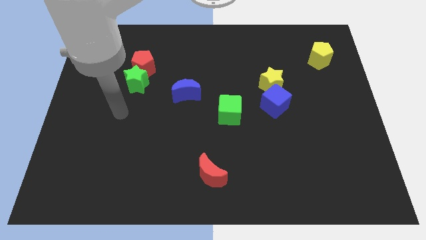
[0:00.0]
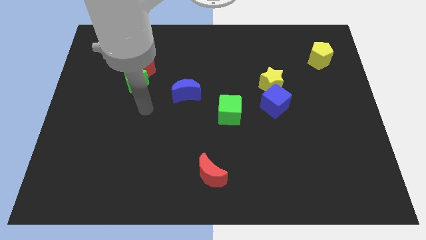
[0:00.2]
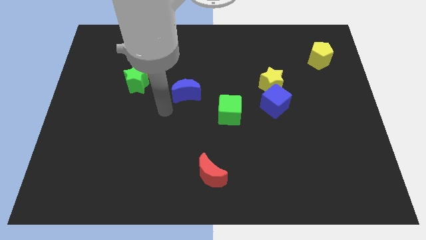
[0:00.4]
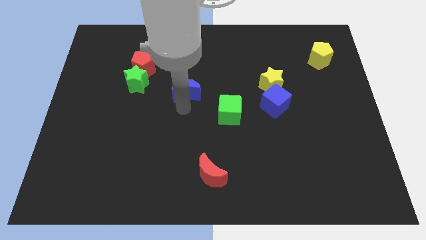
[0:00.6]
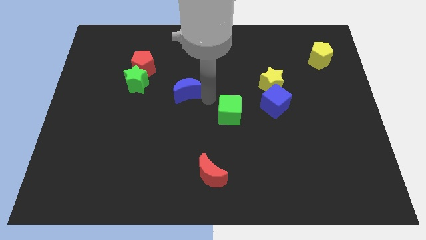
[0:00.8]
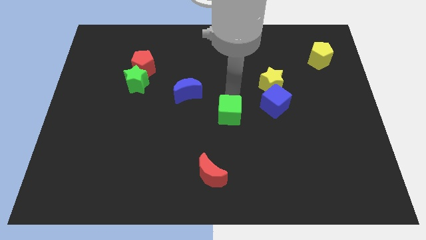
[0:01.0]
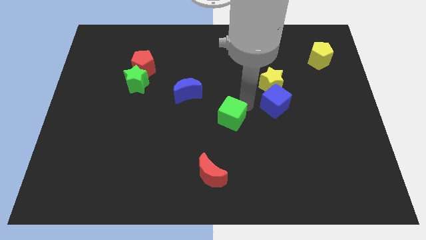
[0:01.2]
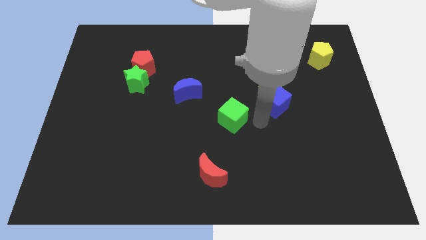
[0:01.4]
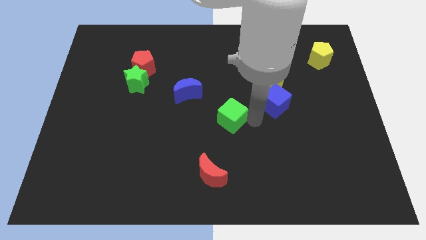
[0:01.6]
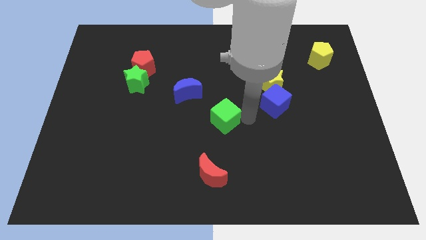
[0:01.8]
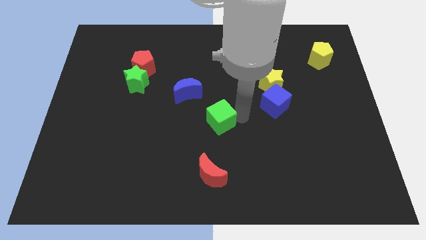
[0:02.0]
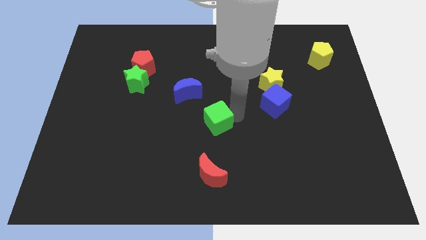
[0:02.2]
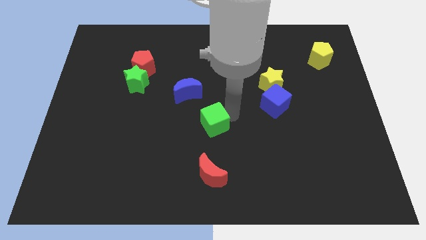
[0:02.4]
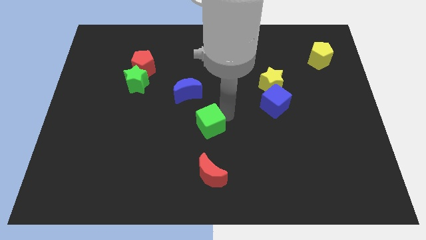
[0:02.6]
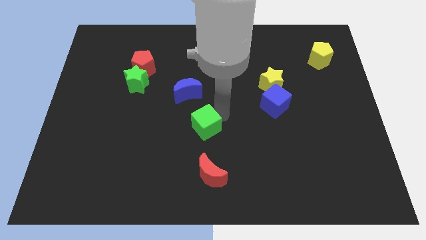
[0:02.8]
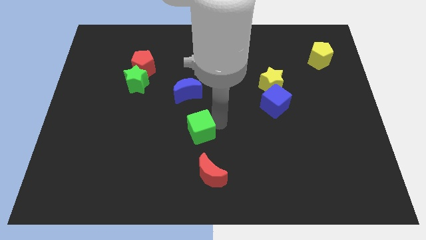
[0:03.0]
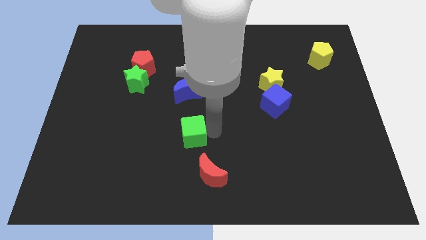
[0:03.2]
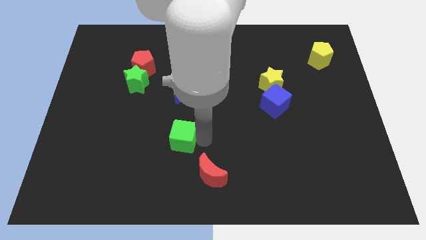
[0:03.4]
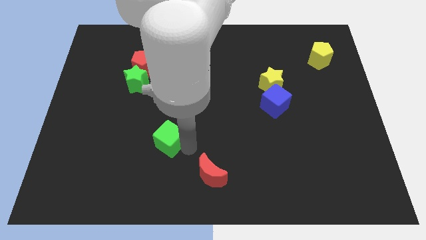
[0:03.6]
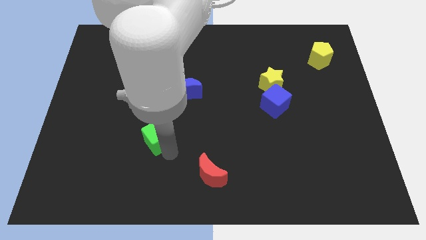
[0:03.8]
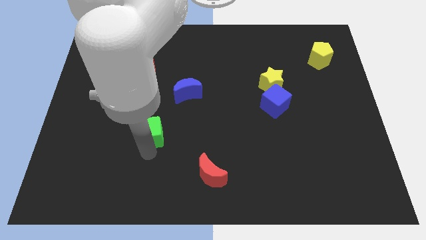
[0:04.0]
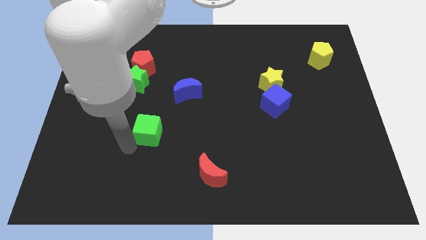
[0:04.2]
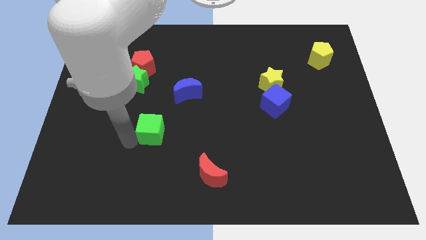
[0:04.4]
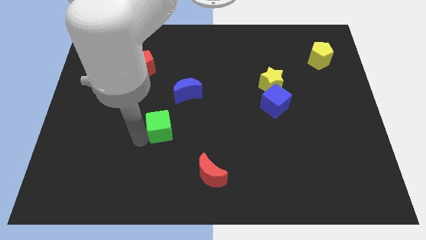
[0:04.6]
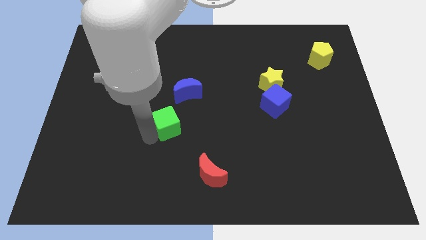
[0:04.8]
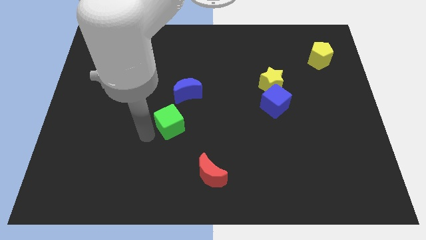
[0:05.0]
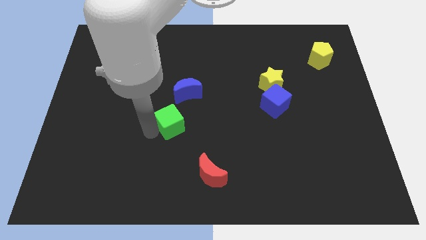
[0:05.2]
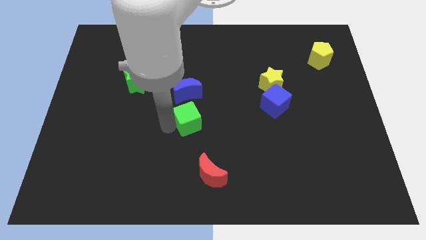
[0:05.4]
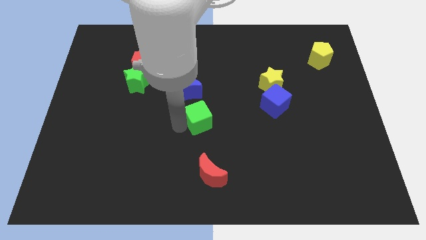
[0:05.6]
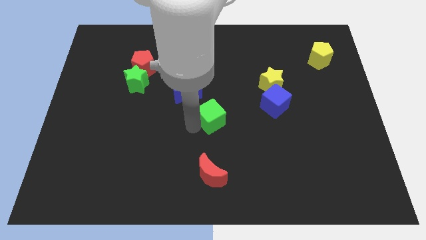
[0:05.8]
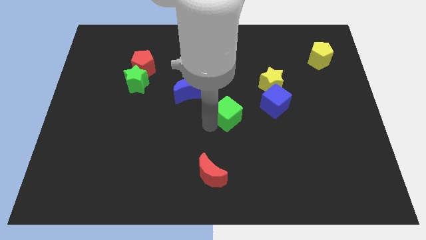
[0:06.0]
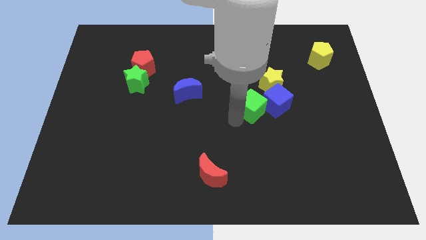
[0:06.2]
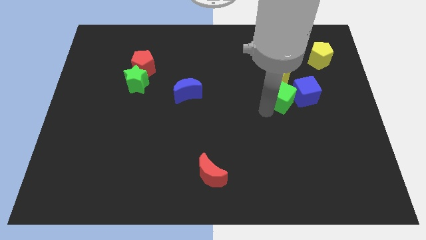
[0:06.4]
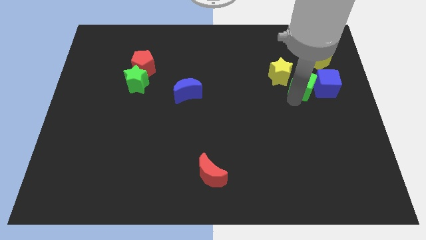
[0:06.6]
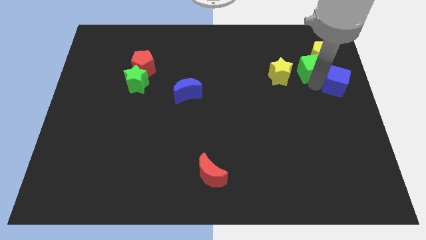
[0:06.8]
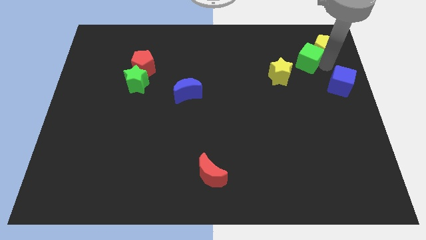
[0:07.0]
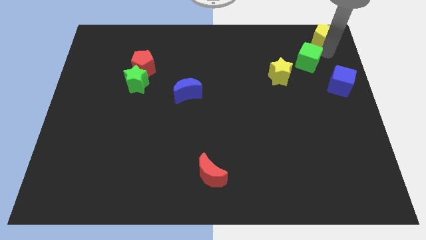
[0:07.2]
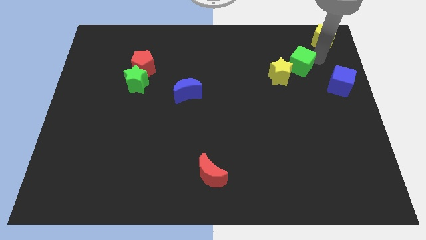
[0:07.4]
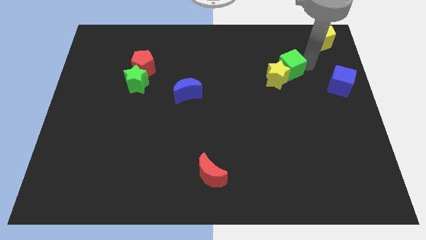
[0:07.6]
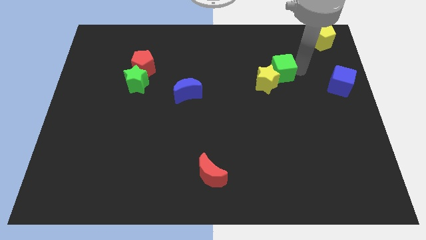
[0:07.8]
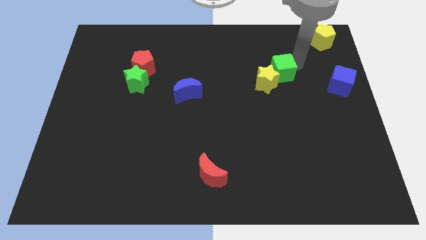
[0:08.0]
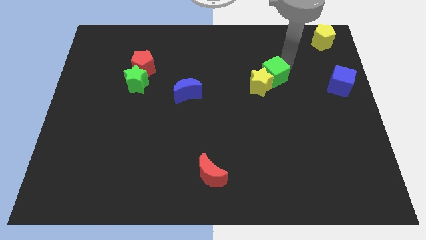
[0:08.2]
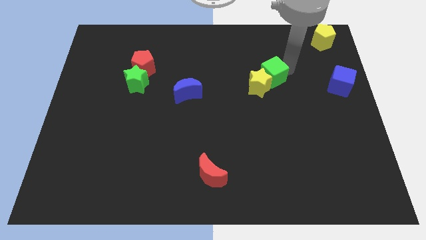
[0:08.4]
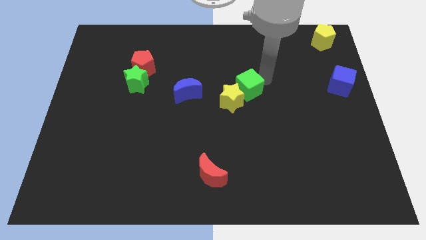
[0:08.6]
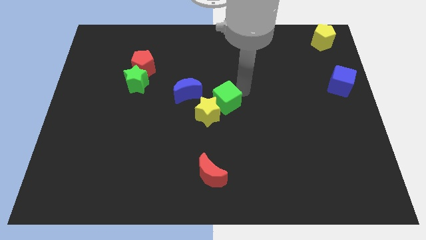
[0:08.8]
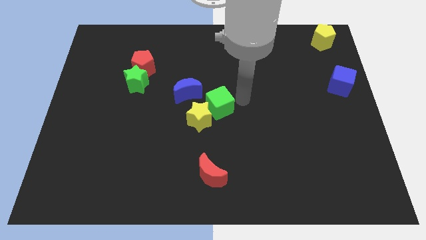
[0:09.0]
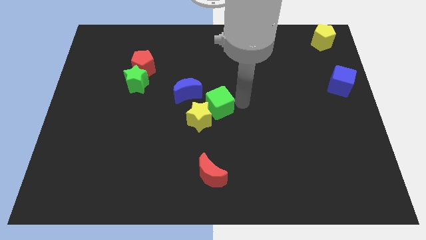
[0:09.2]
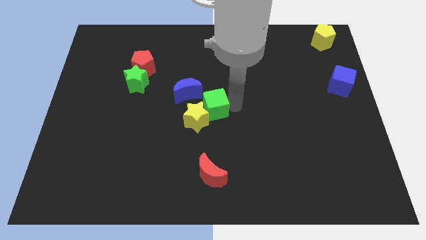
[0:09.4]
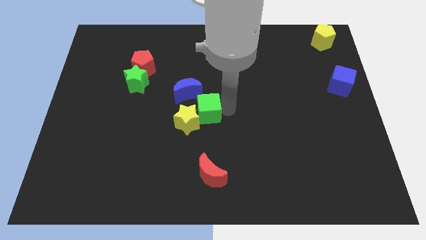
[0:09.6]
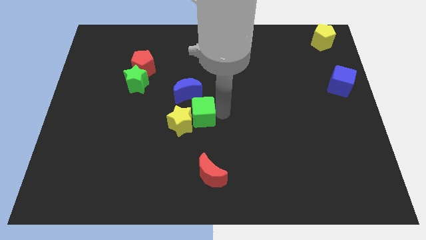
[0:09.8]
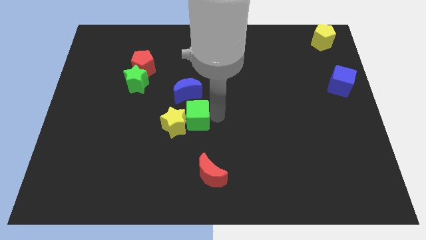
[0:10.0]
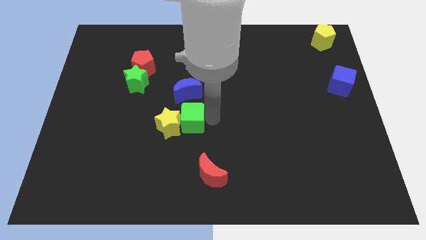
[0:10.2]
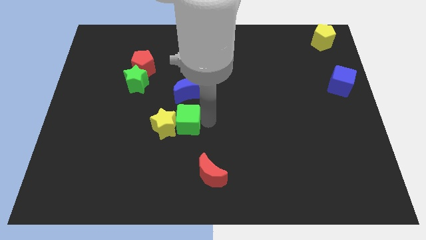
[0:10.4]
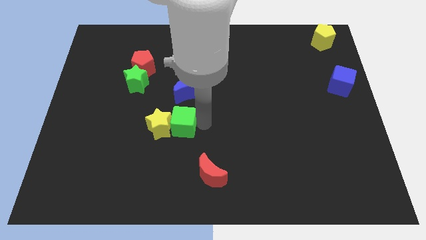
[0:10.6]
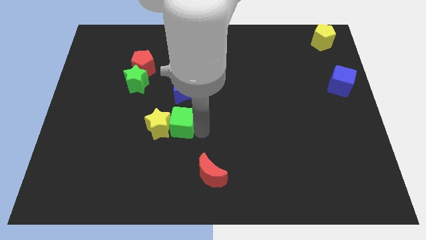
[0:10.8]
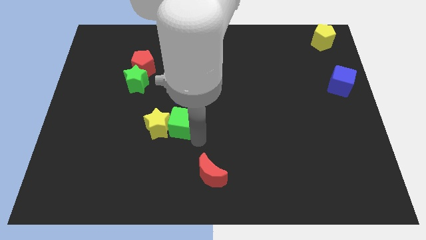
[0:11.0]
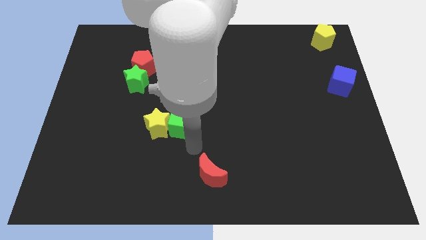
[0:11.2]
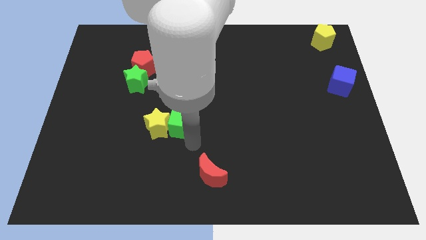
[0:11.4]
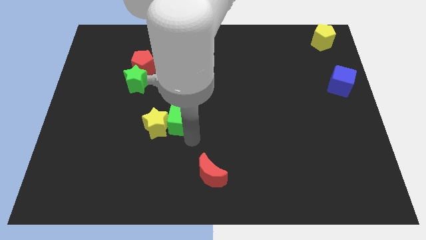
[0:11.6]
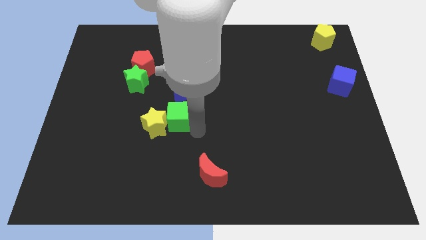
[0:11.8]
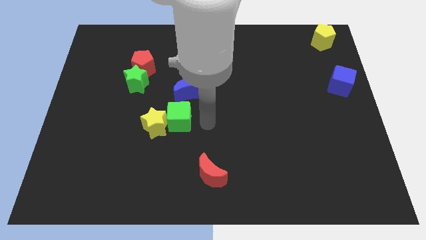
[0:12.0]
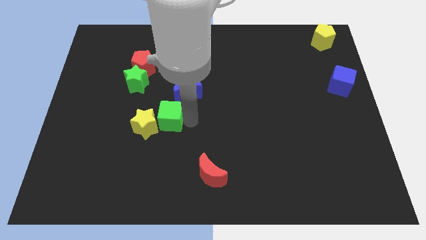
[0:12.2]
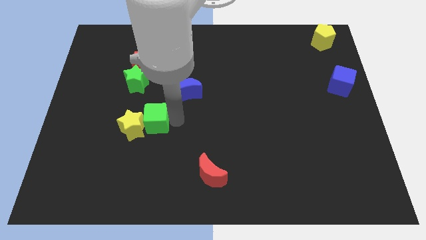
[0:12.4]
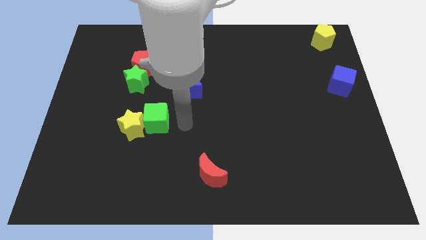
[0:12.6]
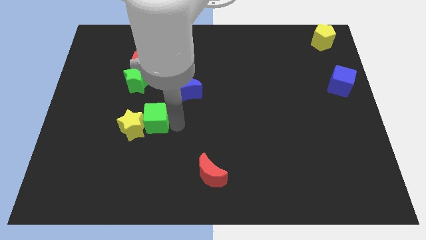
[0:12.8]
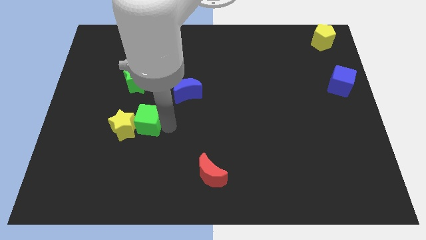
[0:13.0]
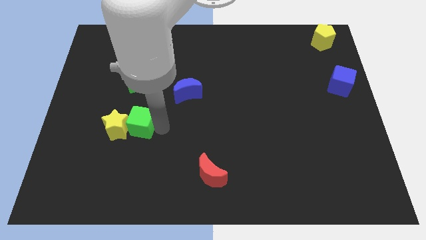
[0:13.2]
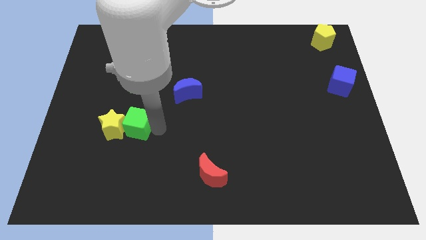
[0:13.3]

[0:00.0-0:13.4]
move the green cube to the left

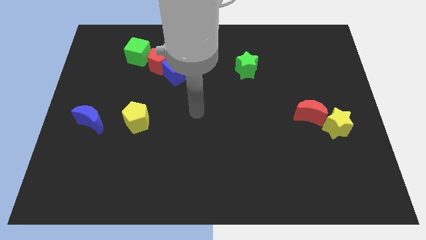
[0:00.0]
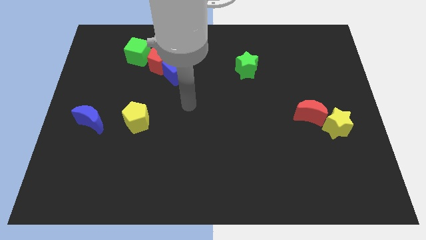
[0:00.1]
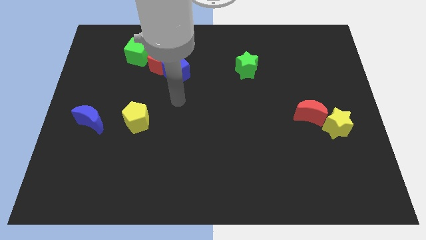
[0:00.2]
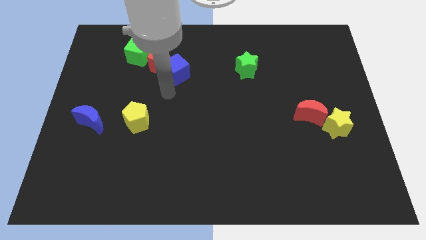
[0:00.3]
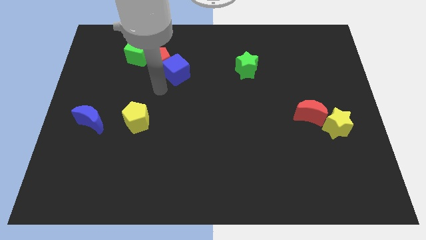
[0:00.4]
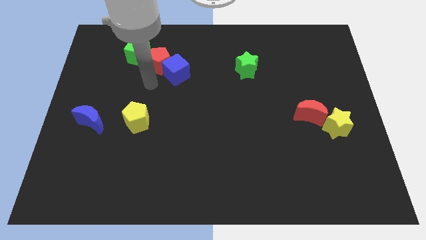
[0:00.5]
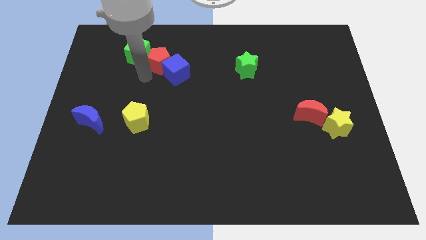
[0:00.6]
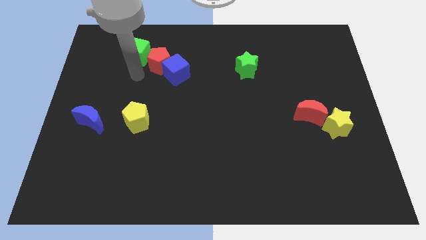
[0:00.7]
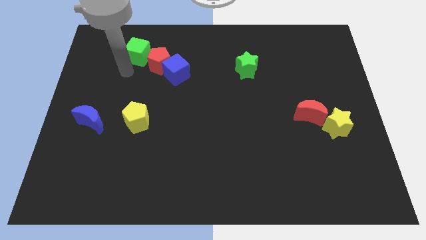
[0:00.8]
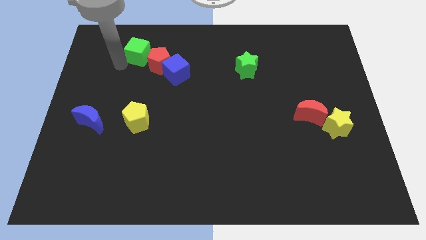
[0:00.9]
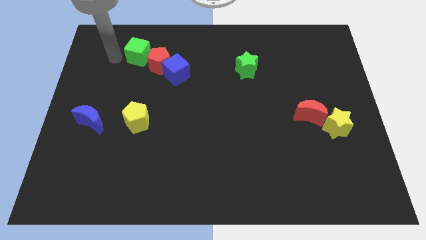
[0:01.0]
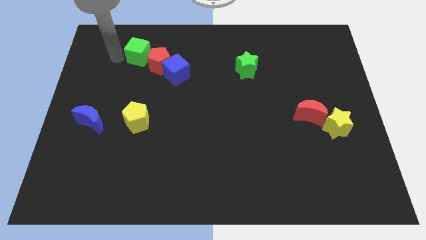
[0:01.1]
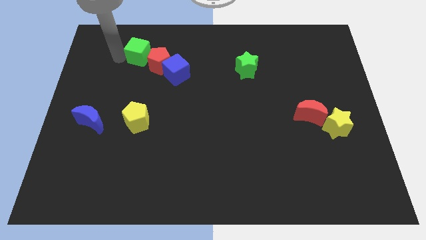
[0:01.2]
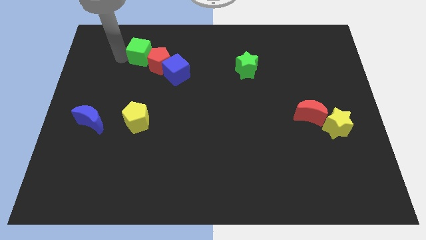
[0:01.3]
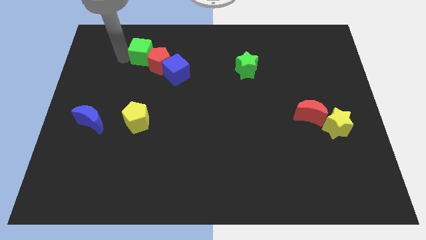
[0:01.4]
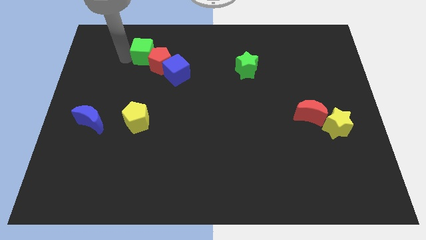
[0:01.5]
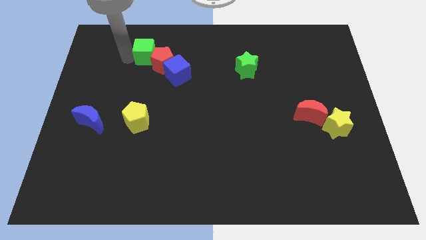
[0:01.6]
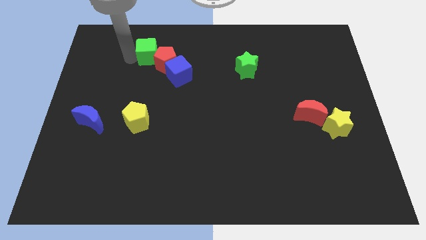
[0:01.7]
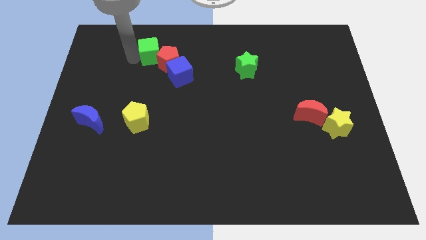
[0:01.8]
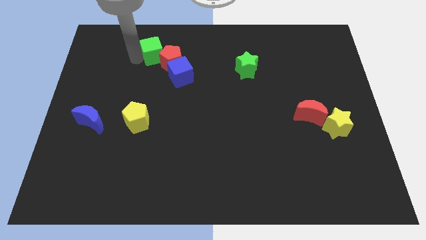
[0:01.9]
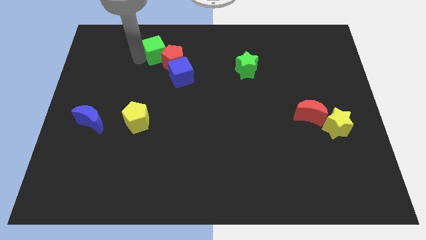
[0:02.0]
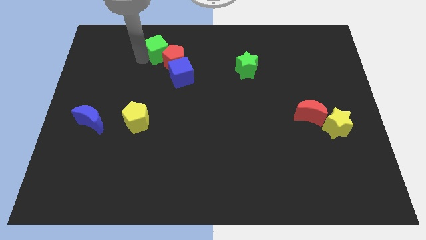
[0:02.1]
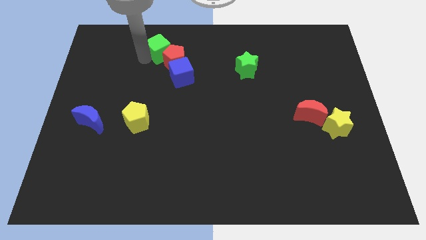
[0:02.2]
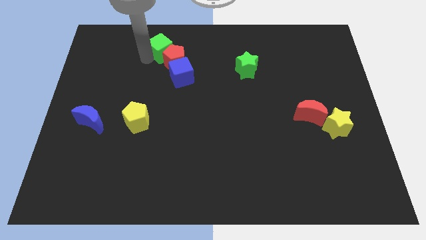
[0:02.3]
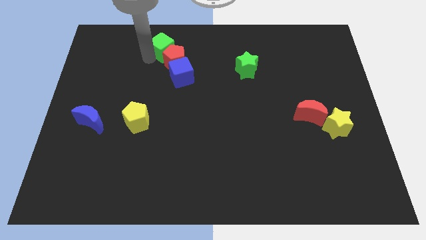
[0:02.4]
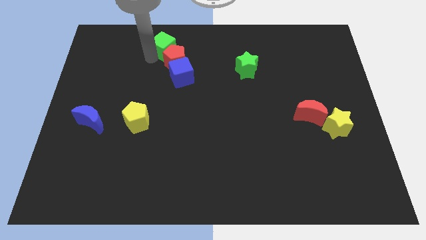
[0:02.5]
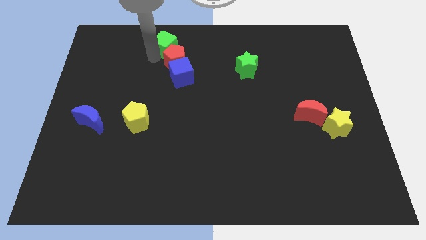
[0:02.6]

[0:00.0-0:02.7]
slightly slide the green cube to the right
